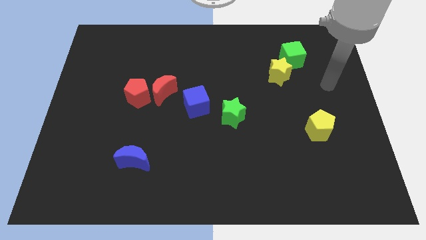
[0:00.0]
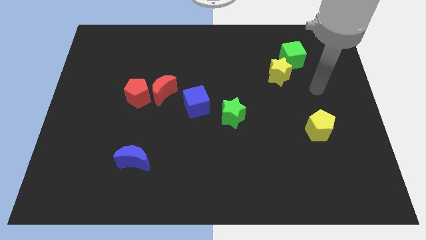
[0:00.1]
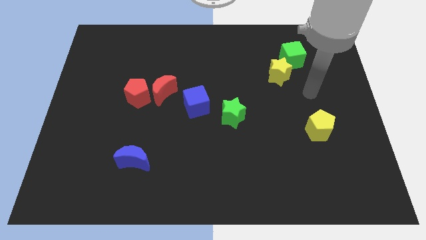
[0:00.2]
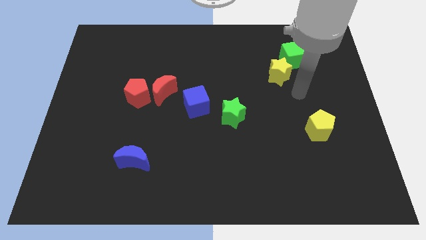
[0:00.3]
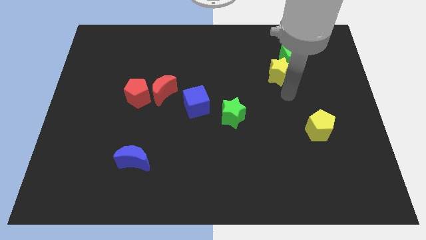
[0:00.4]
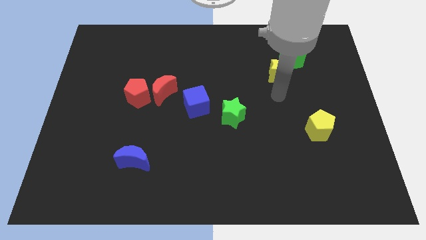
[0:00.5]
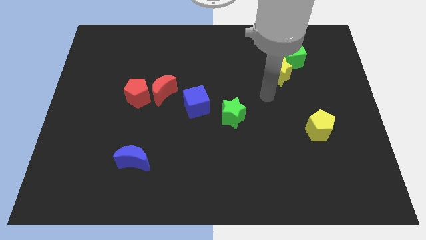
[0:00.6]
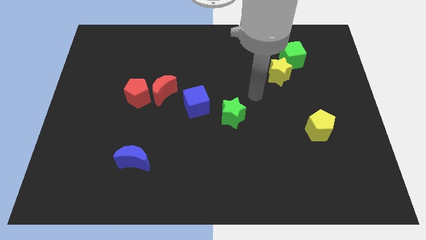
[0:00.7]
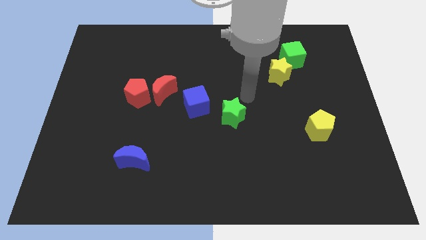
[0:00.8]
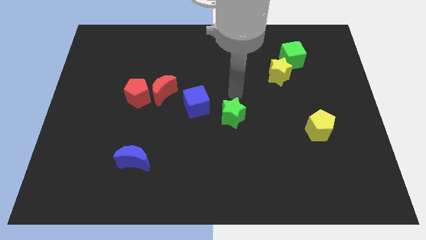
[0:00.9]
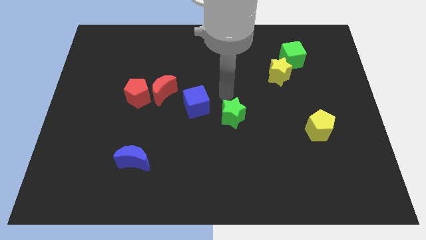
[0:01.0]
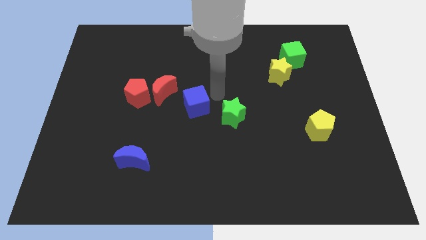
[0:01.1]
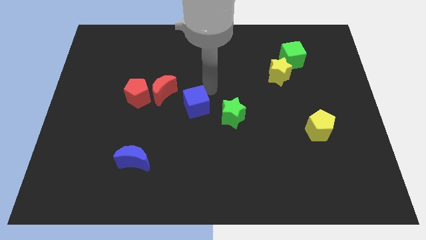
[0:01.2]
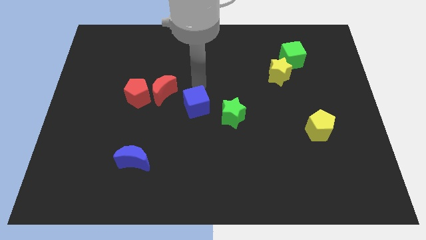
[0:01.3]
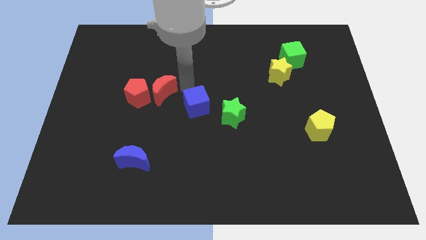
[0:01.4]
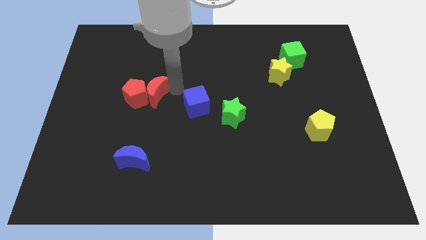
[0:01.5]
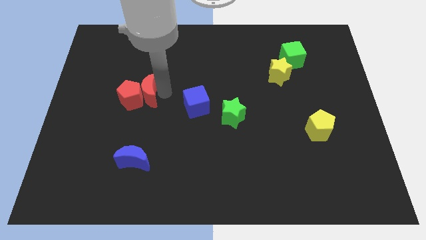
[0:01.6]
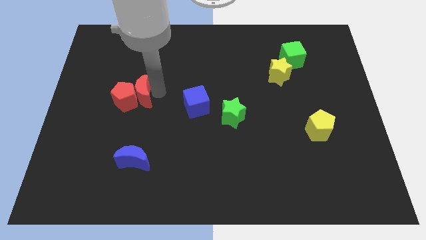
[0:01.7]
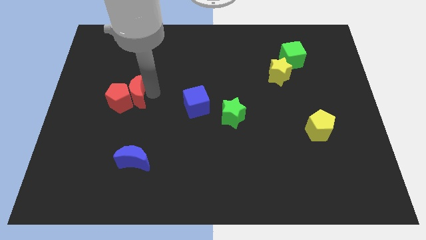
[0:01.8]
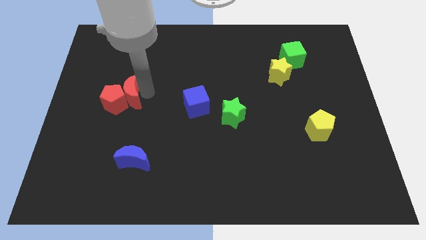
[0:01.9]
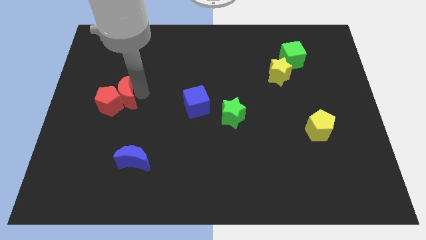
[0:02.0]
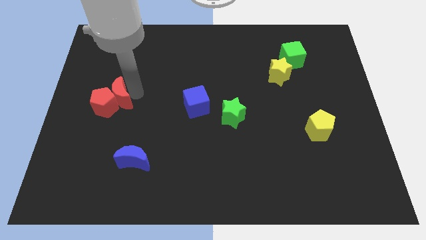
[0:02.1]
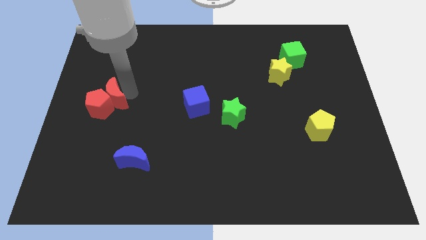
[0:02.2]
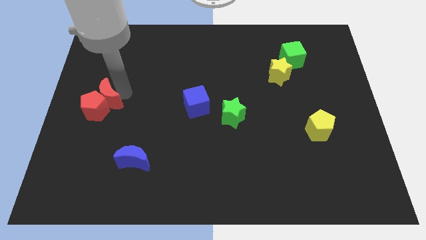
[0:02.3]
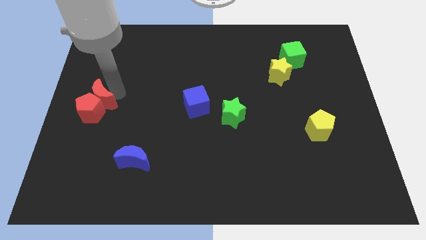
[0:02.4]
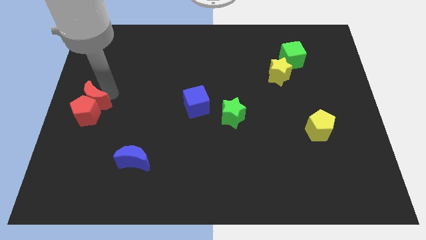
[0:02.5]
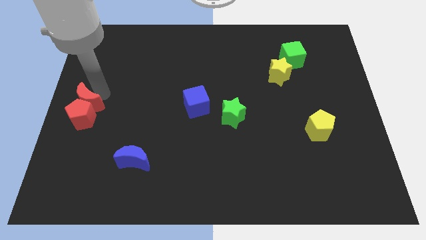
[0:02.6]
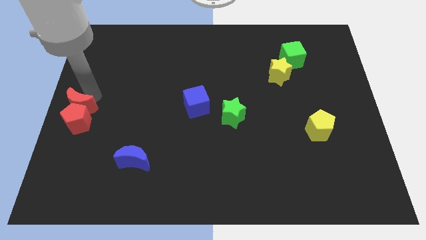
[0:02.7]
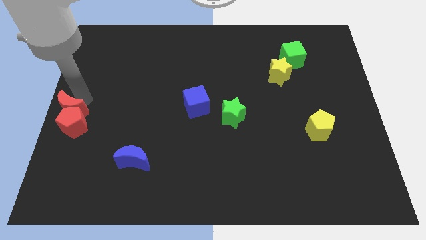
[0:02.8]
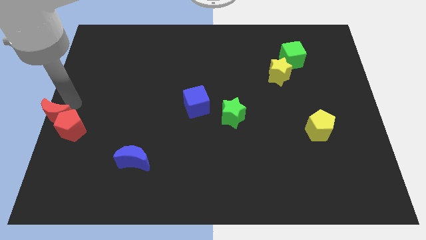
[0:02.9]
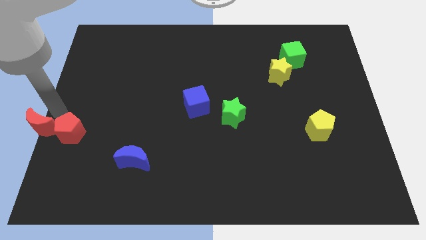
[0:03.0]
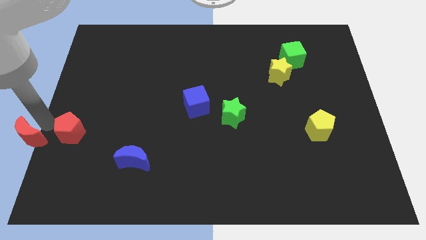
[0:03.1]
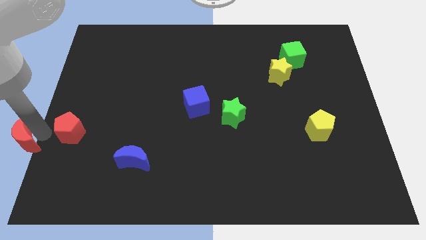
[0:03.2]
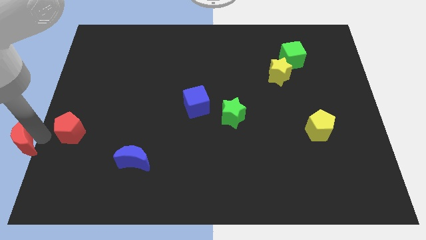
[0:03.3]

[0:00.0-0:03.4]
move the red pentagon away from the red moon

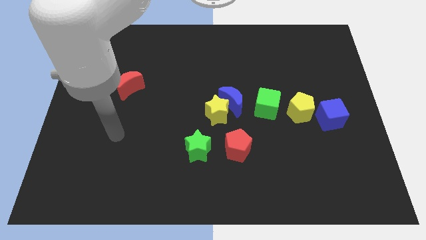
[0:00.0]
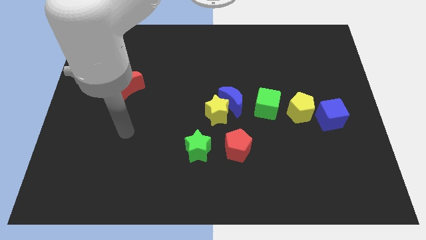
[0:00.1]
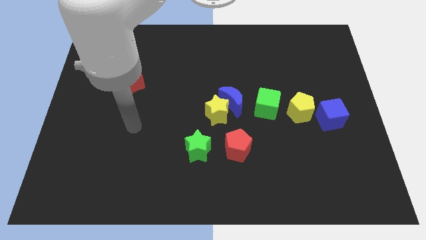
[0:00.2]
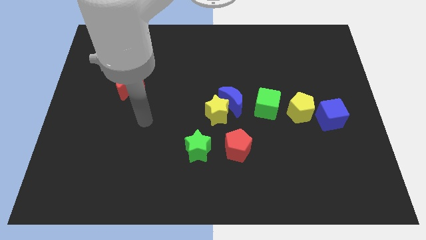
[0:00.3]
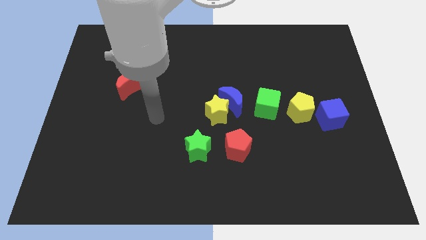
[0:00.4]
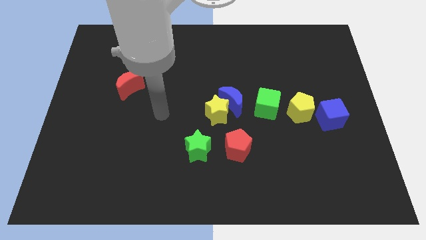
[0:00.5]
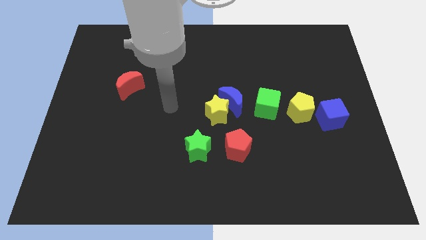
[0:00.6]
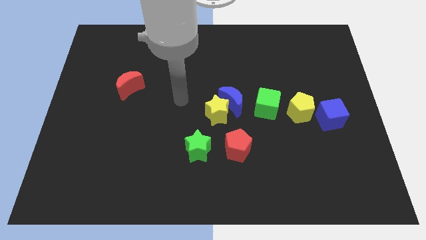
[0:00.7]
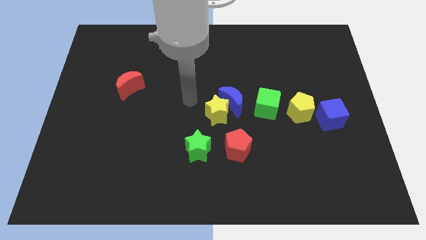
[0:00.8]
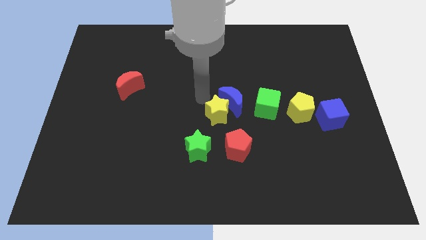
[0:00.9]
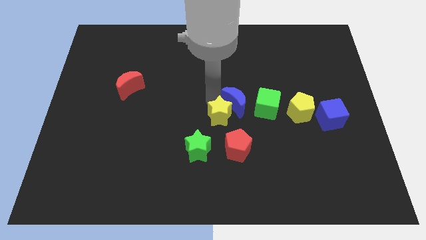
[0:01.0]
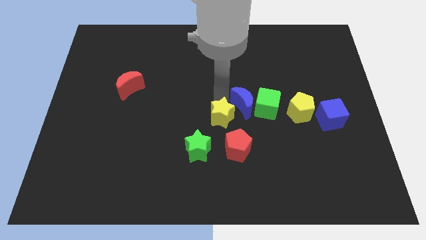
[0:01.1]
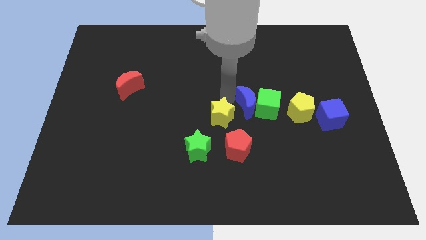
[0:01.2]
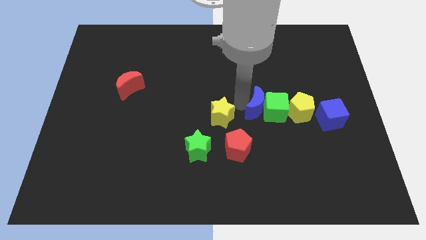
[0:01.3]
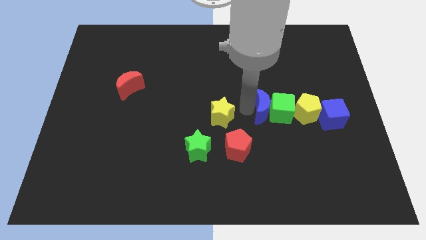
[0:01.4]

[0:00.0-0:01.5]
move the yellow star away from the blue moon

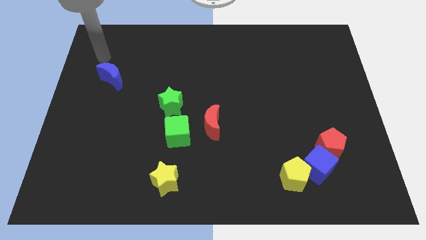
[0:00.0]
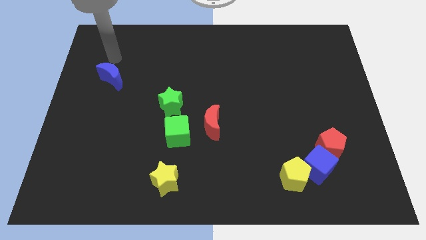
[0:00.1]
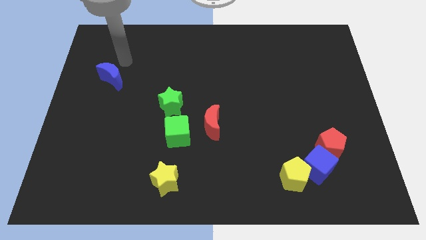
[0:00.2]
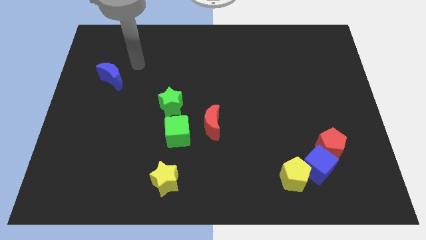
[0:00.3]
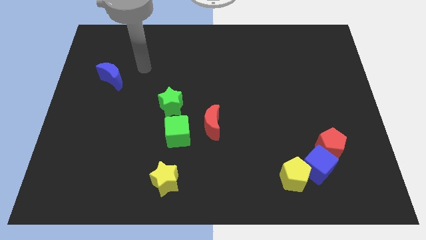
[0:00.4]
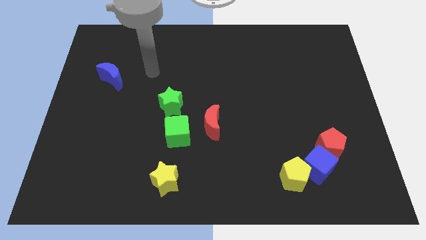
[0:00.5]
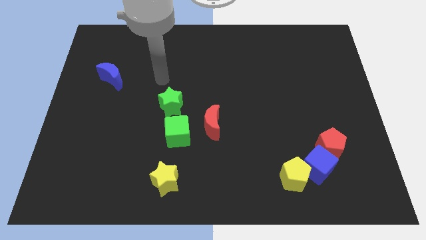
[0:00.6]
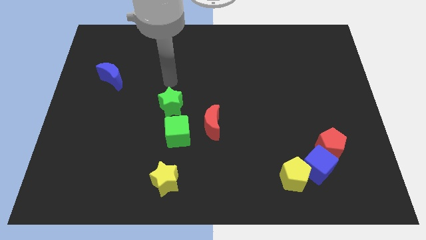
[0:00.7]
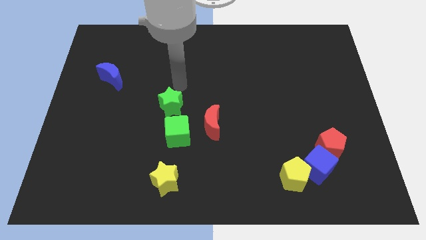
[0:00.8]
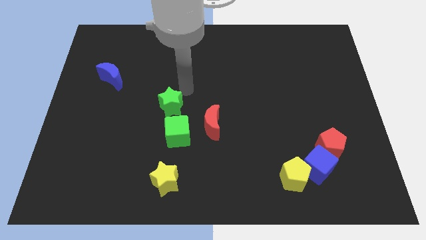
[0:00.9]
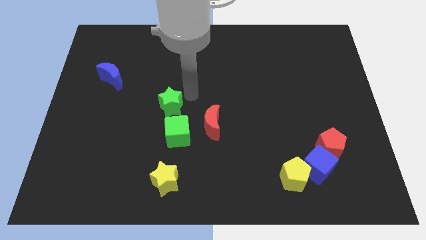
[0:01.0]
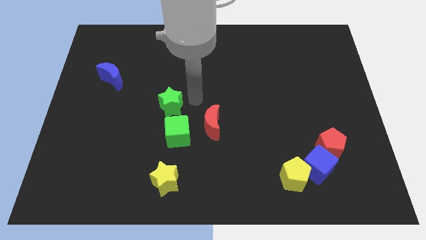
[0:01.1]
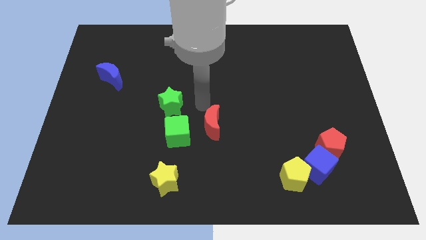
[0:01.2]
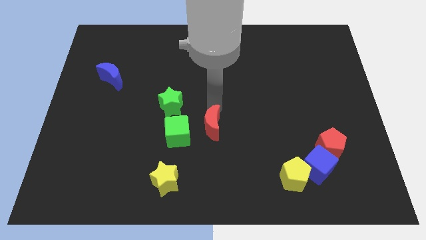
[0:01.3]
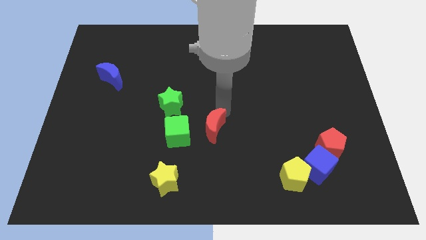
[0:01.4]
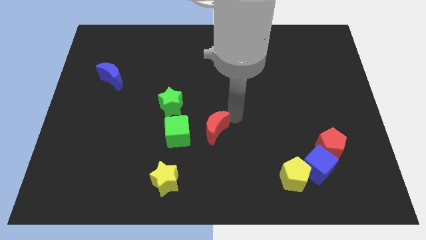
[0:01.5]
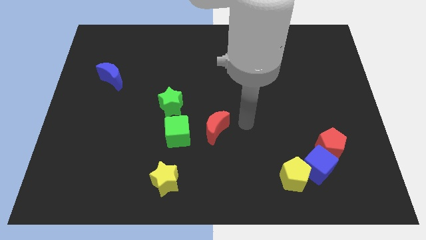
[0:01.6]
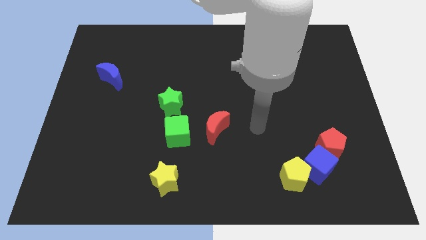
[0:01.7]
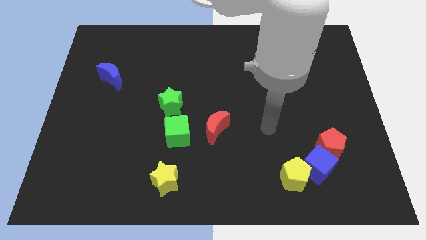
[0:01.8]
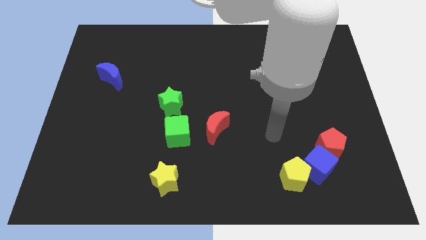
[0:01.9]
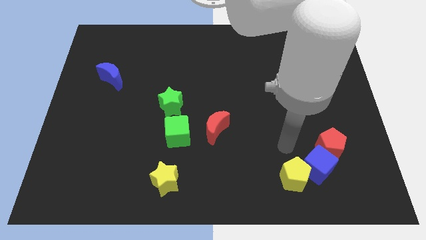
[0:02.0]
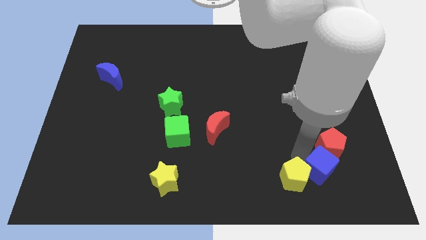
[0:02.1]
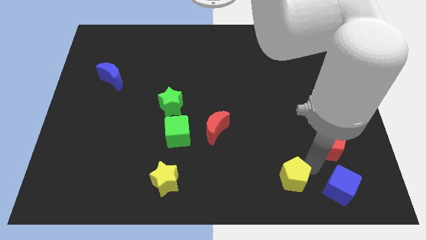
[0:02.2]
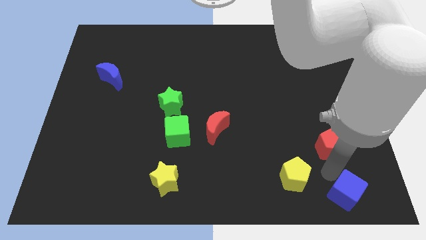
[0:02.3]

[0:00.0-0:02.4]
move the red pentagon away from the blue cube

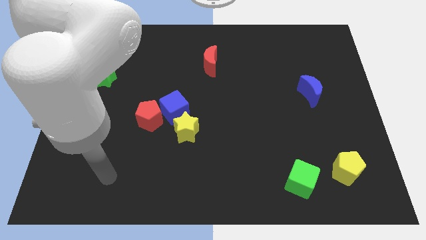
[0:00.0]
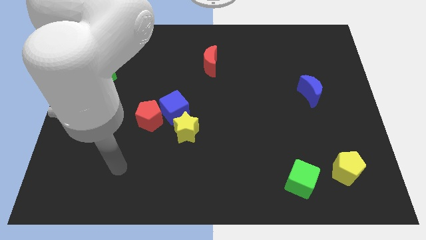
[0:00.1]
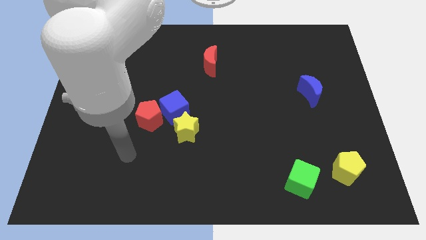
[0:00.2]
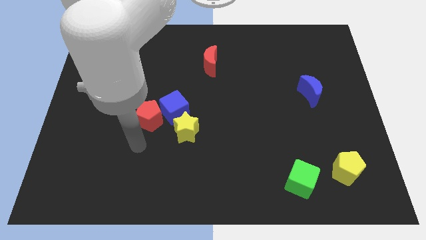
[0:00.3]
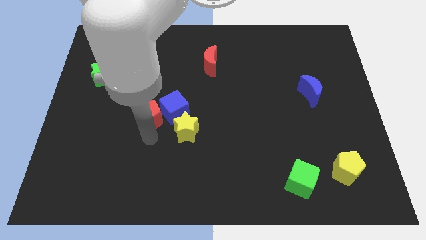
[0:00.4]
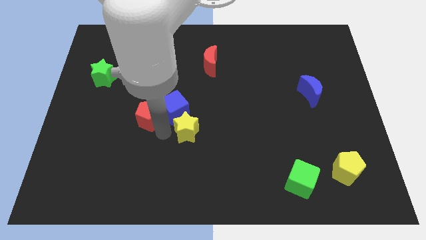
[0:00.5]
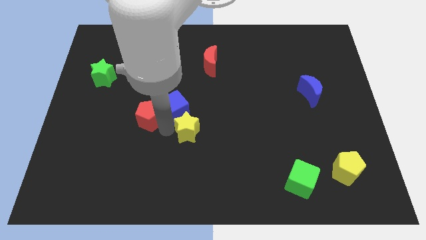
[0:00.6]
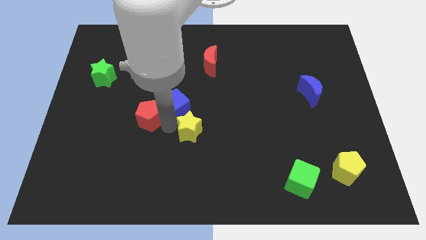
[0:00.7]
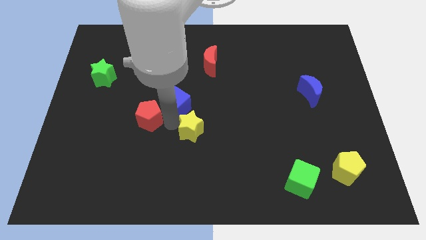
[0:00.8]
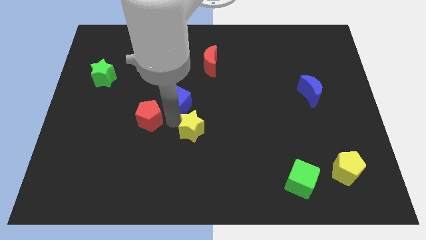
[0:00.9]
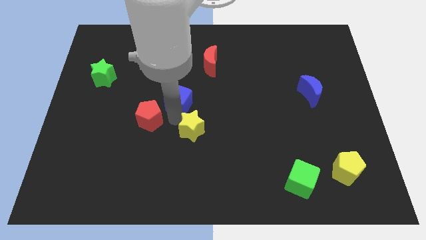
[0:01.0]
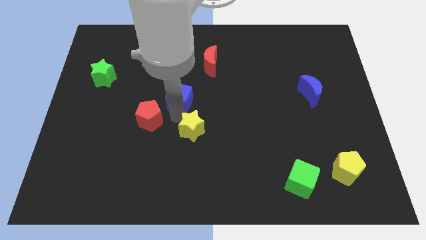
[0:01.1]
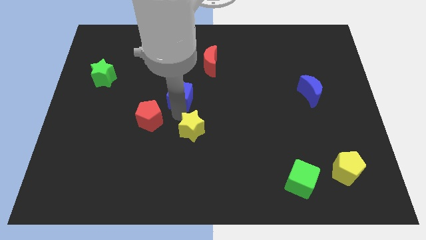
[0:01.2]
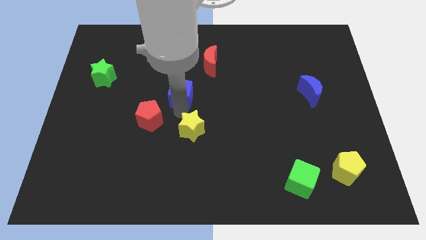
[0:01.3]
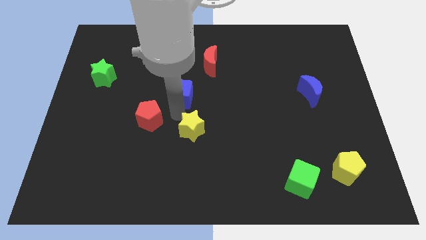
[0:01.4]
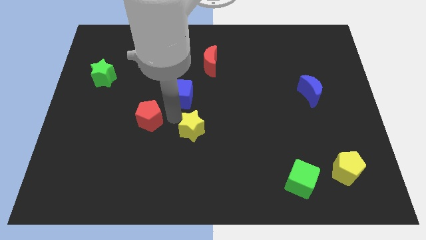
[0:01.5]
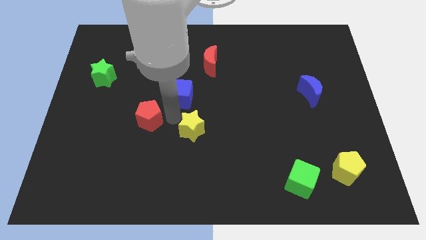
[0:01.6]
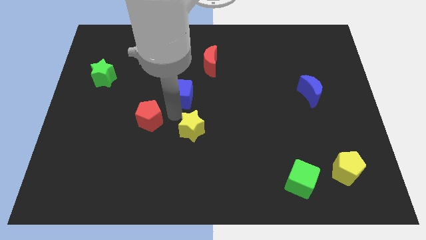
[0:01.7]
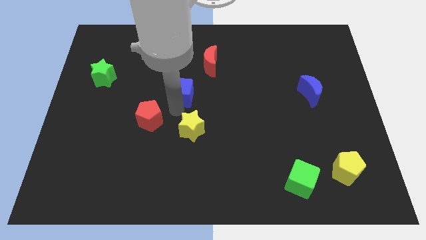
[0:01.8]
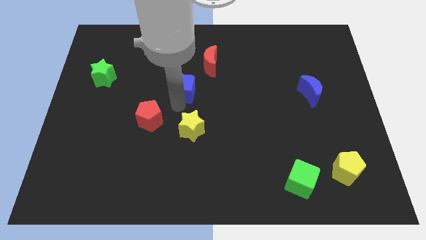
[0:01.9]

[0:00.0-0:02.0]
move the blue cube away from the red pentagon and yellow star

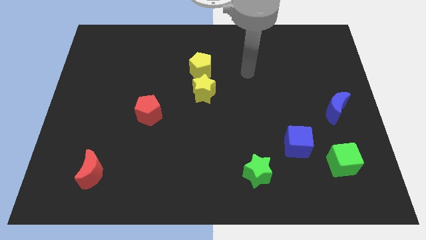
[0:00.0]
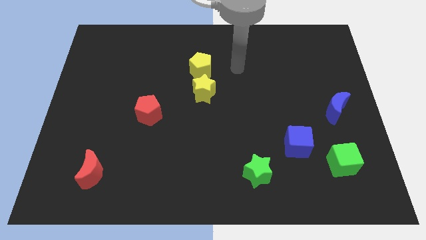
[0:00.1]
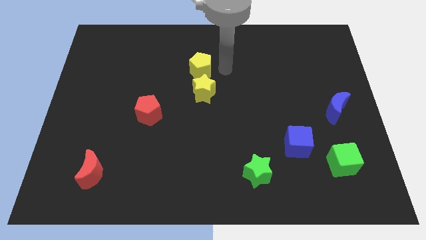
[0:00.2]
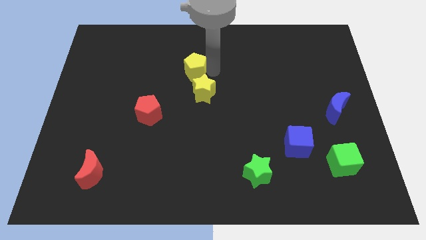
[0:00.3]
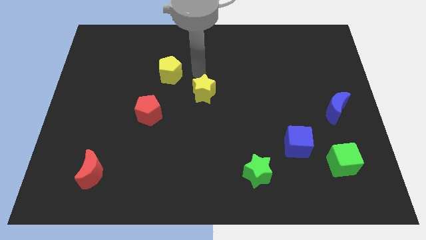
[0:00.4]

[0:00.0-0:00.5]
move the yellow star away from the yellow pentagon
